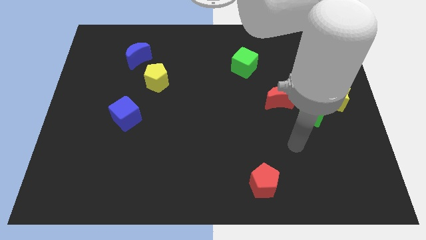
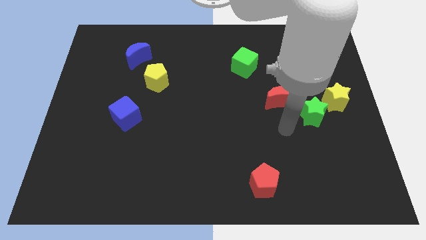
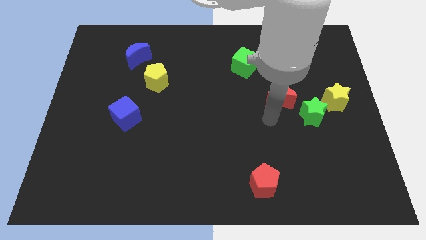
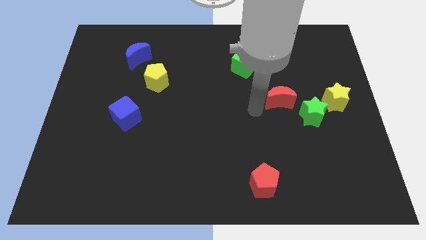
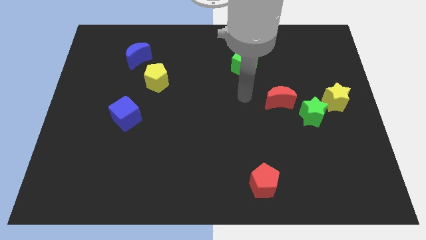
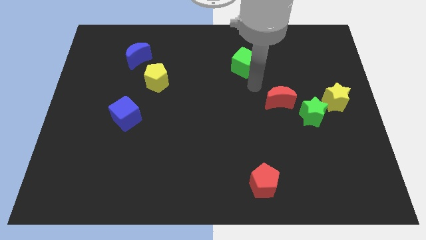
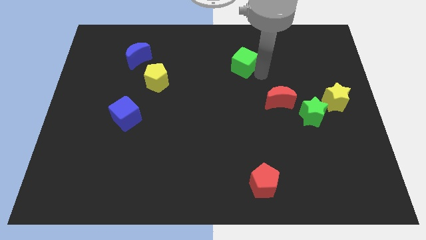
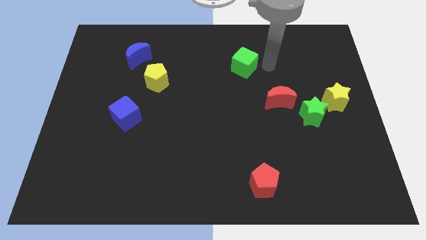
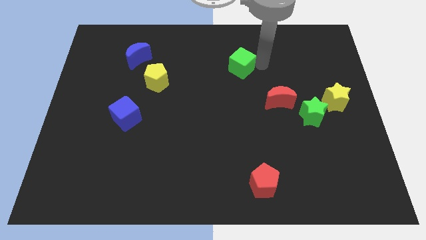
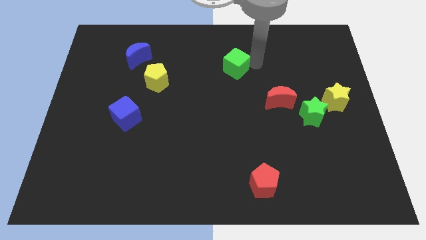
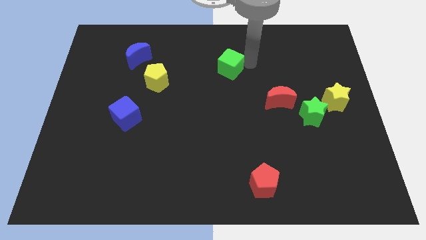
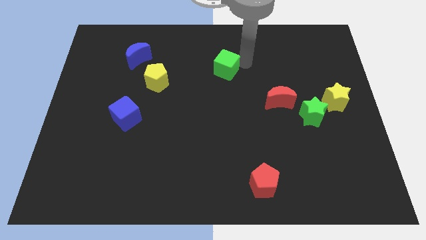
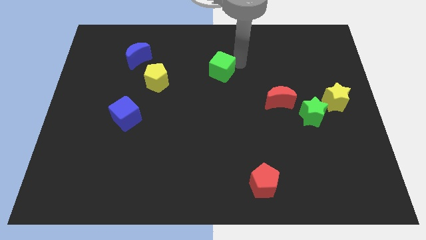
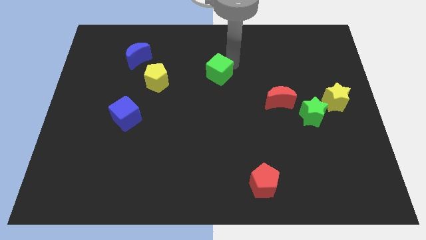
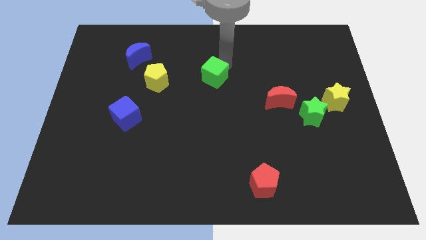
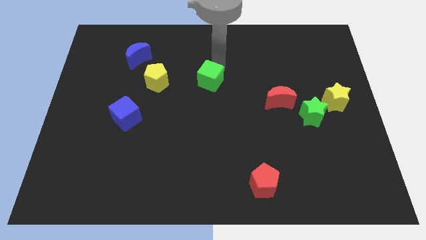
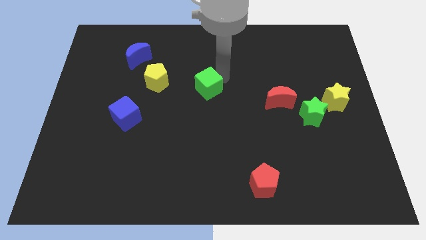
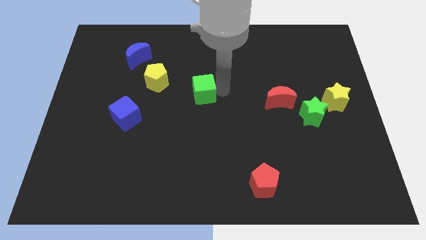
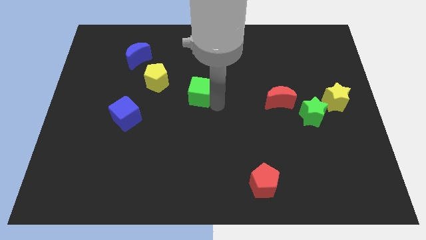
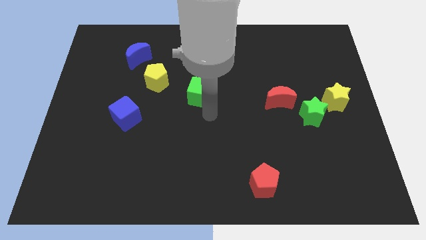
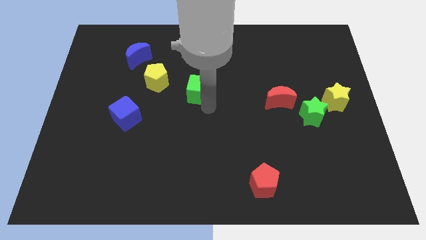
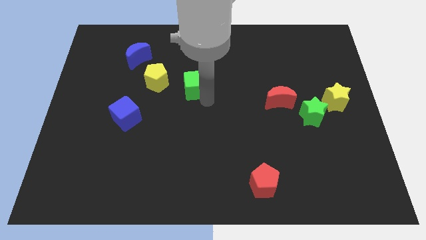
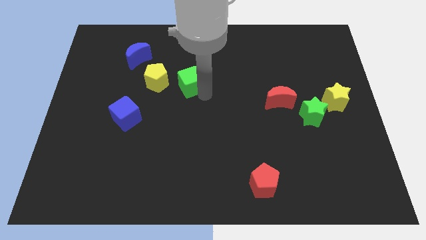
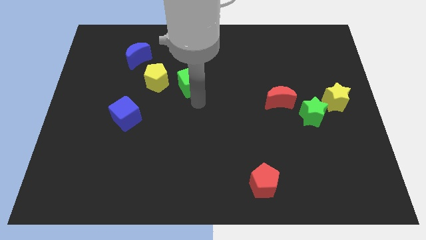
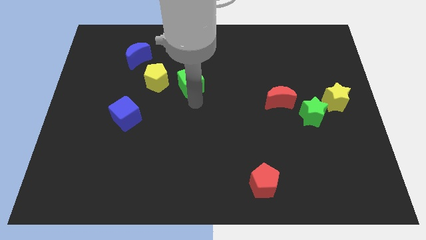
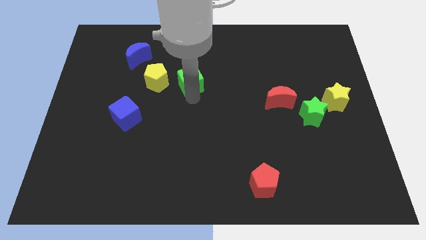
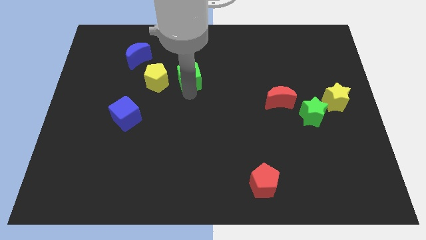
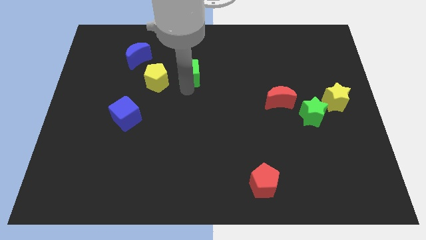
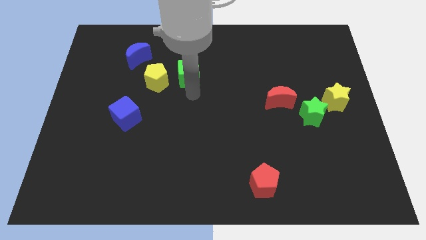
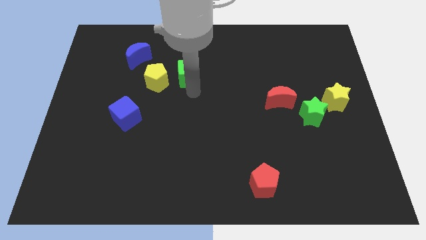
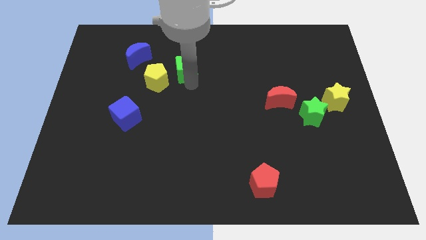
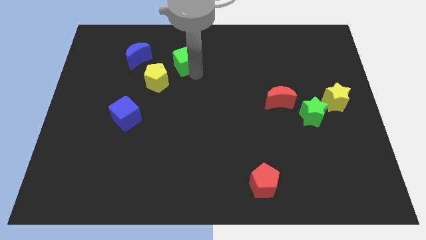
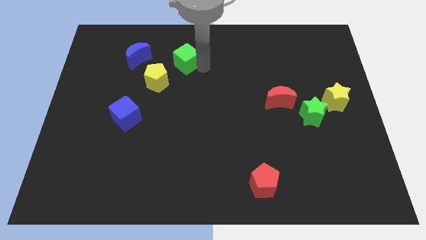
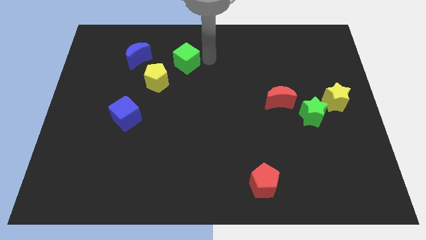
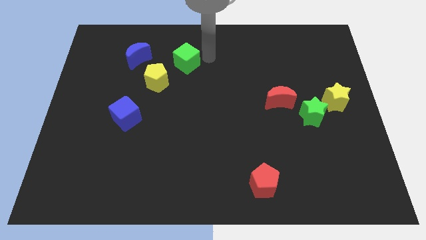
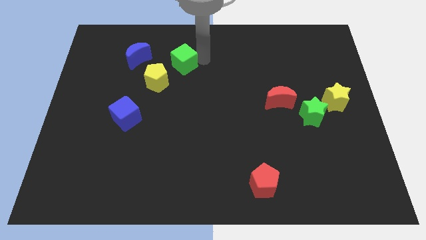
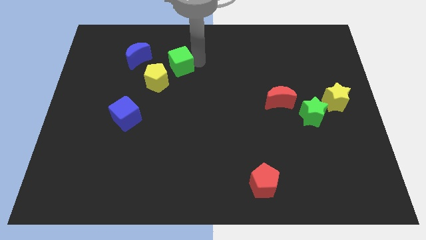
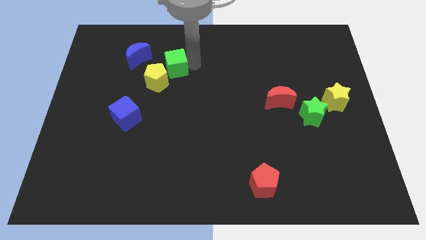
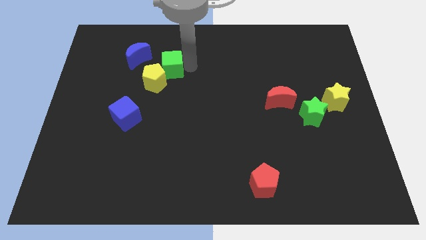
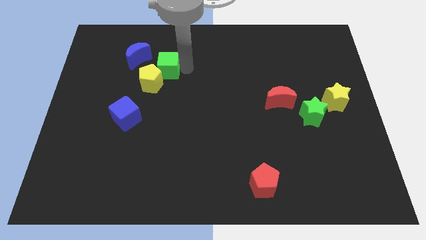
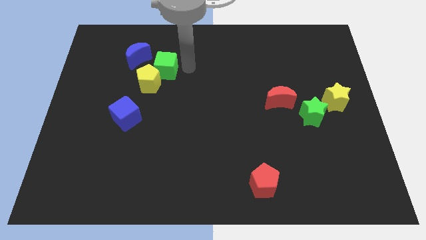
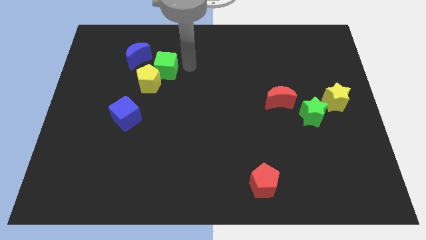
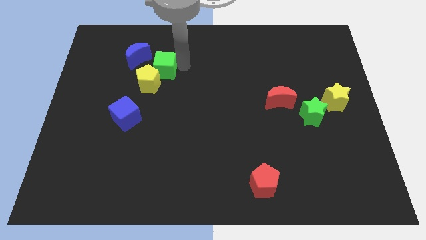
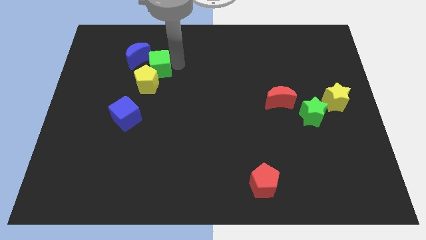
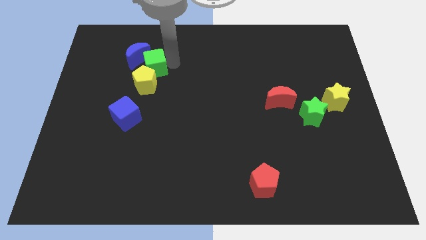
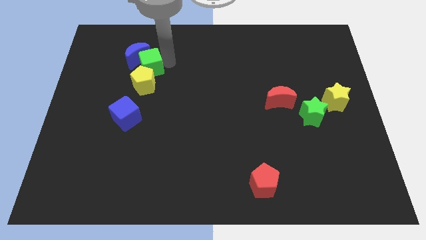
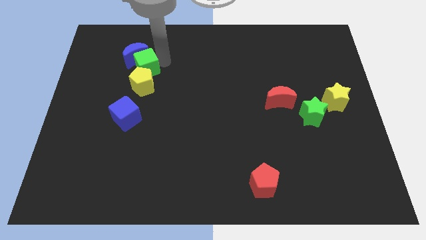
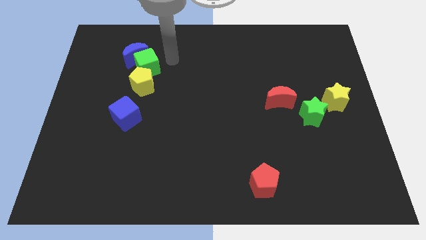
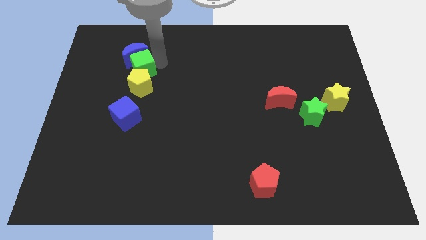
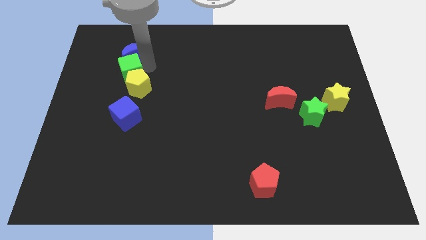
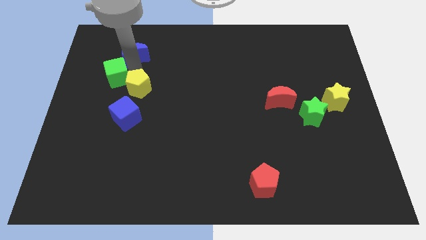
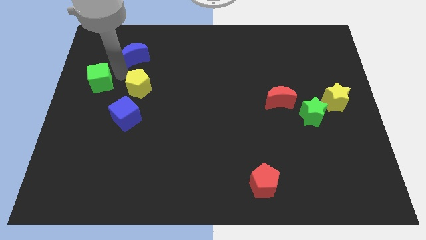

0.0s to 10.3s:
put the green cube to the left side of the board

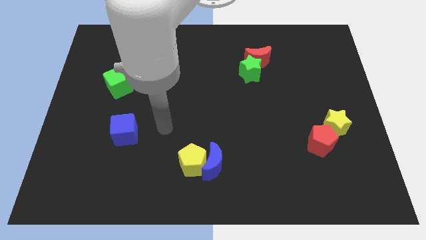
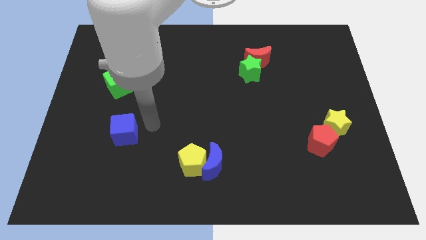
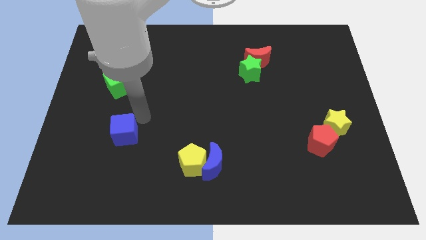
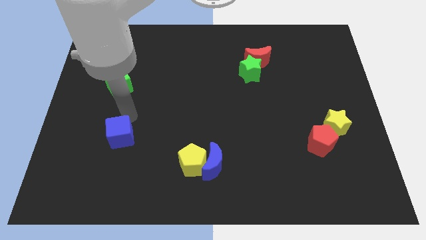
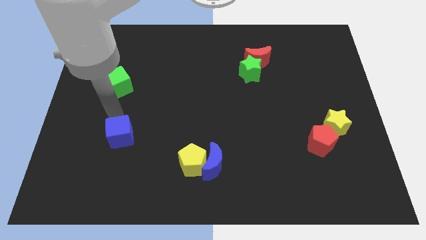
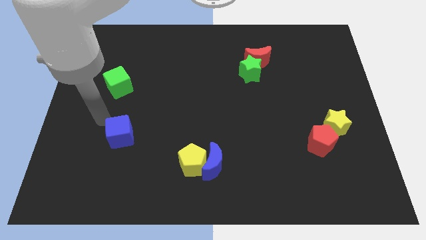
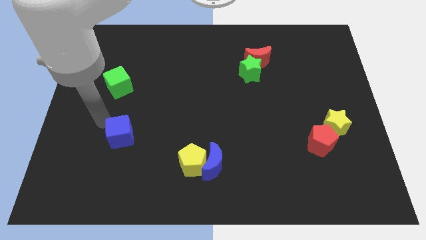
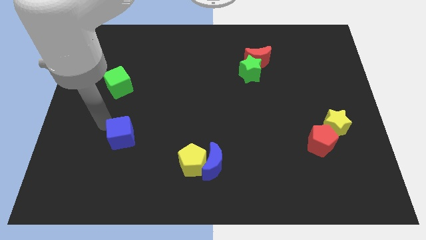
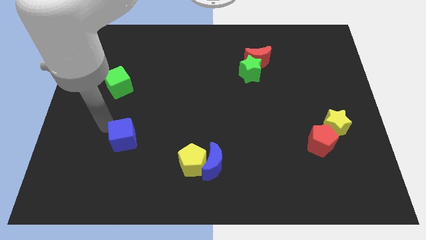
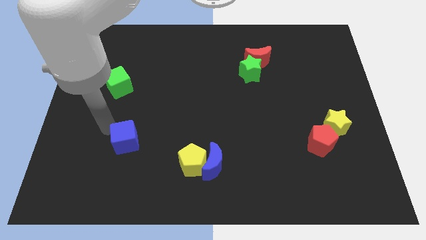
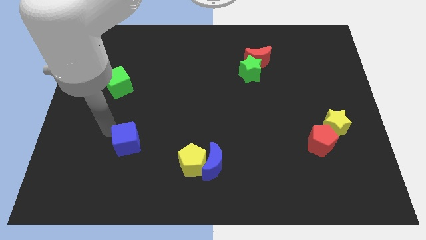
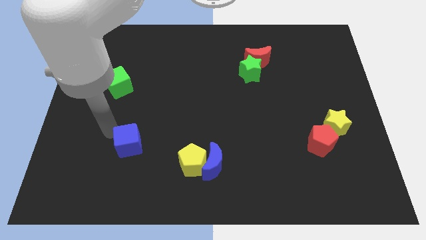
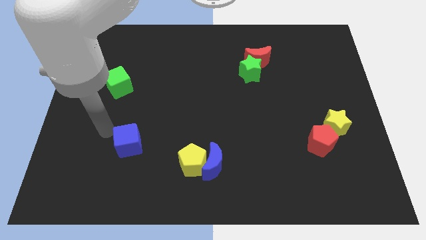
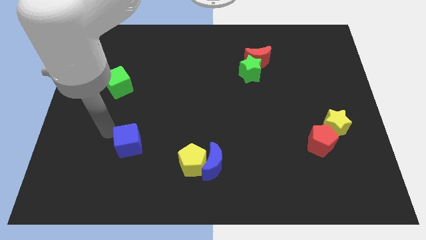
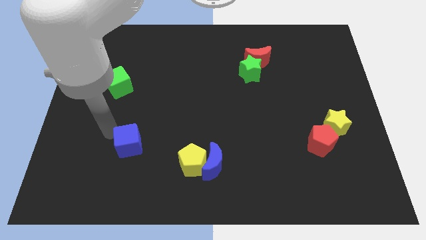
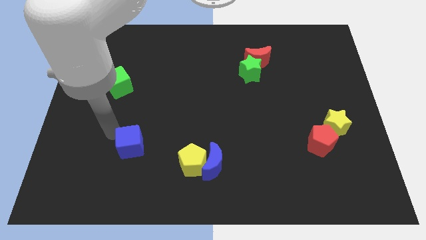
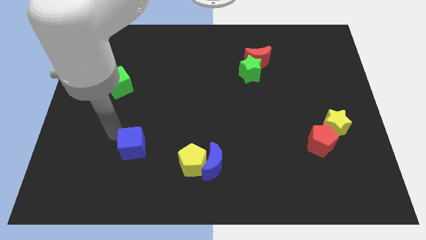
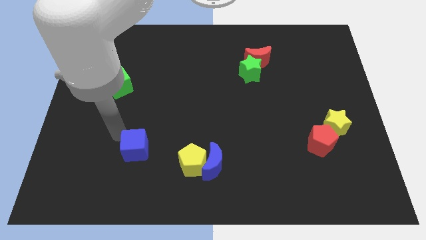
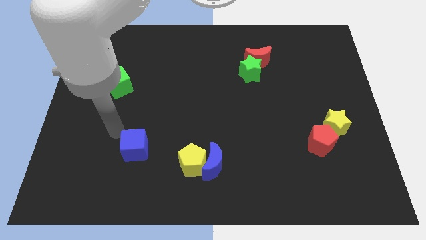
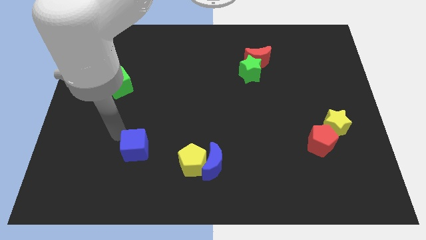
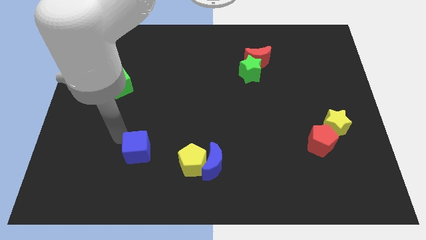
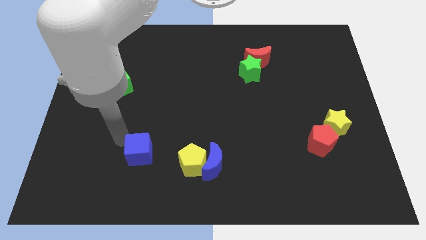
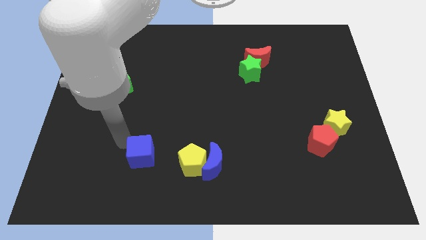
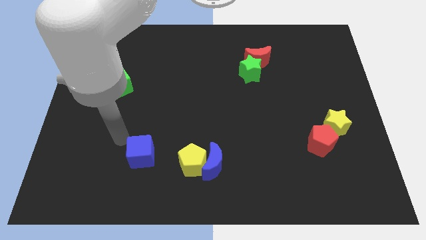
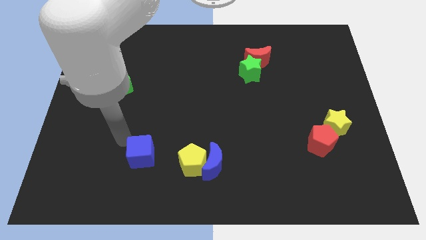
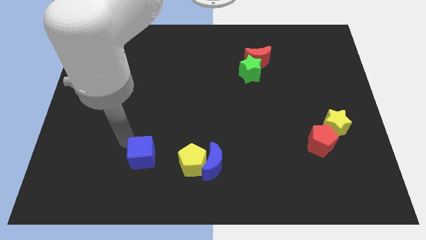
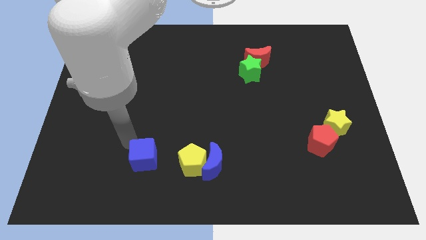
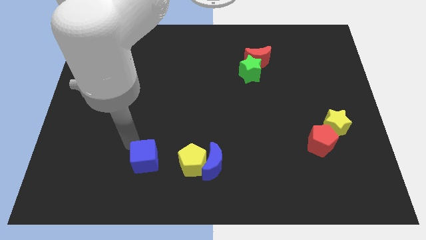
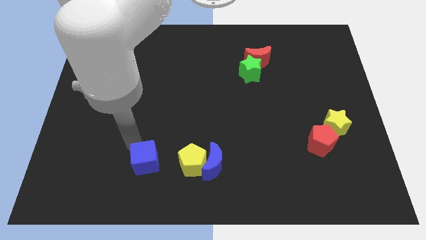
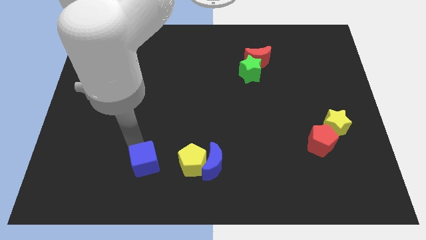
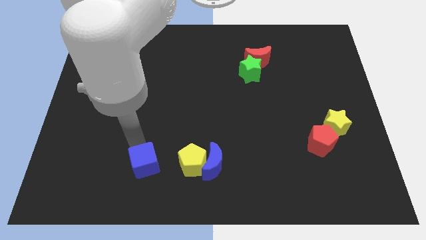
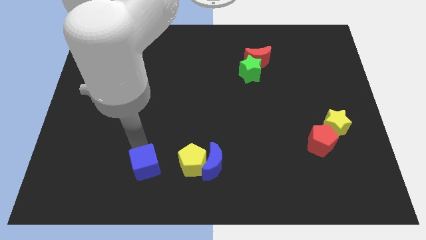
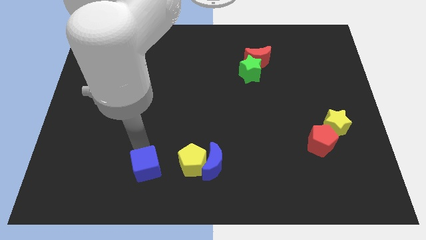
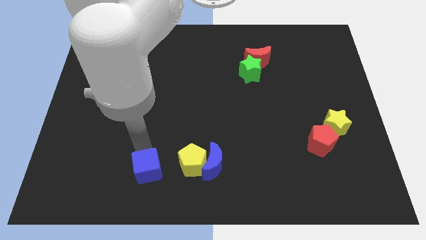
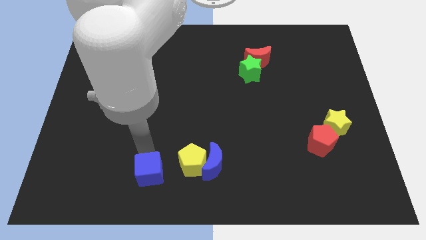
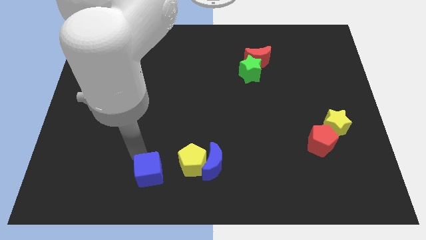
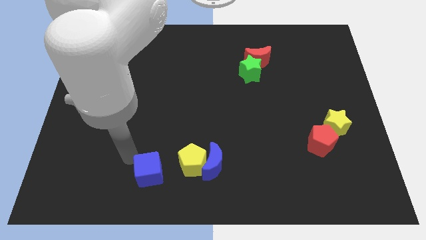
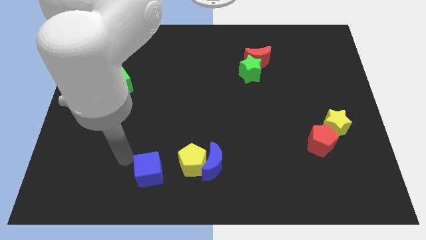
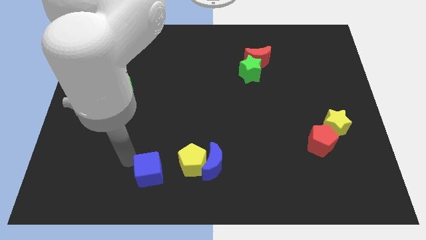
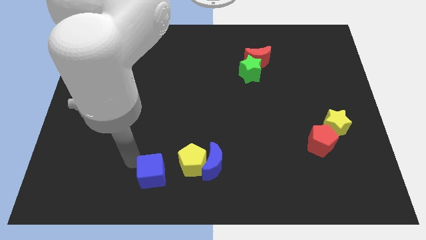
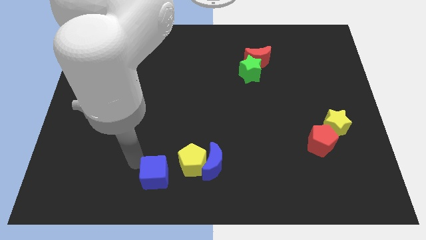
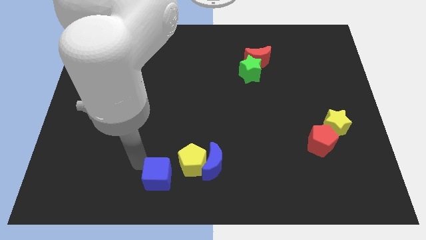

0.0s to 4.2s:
push the blue cube to the bottom
